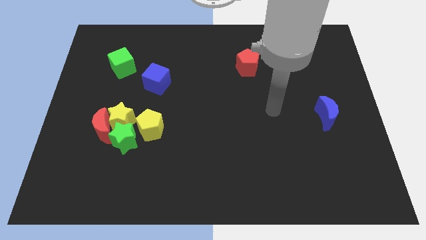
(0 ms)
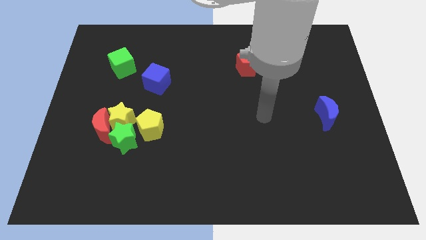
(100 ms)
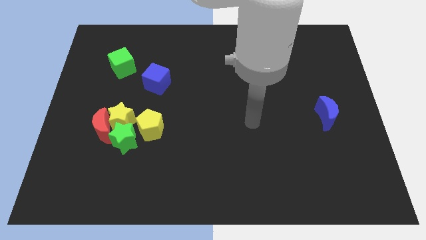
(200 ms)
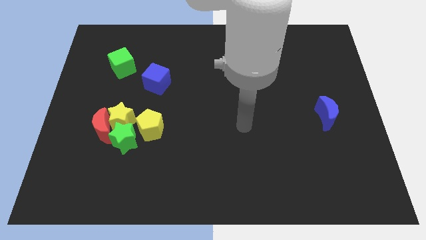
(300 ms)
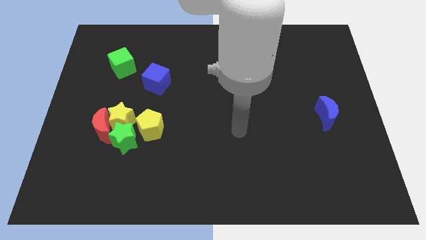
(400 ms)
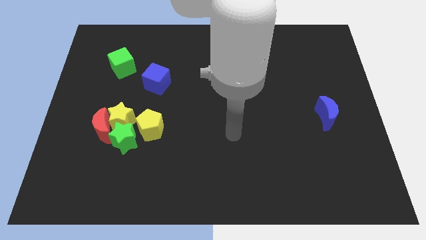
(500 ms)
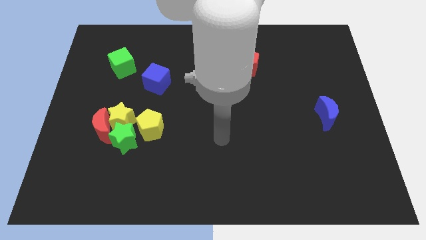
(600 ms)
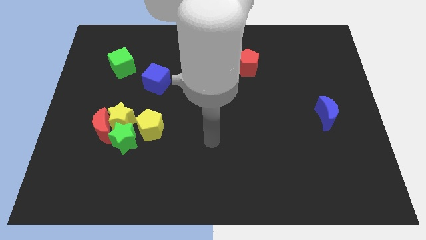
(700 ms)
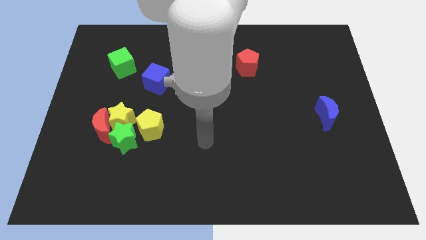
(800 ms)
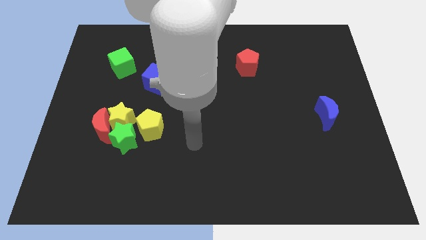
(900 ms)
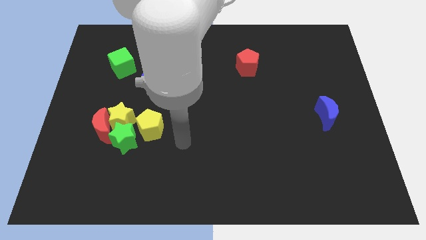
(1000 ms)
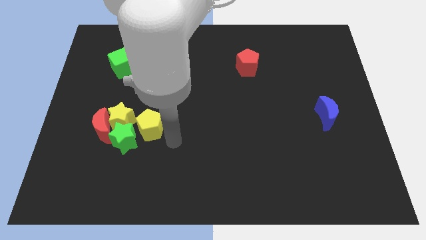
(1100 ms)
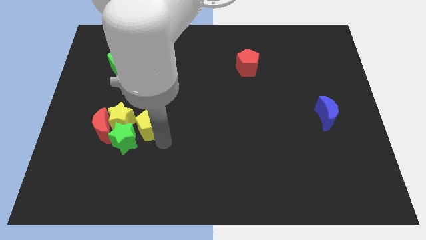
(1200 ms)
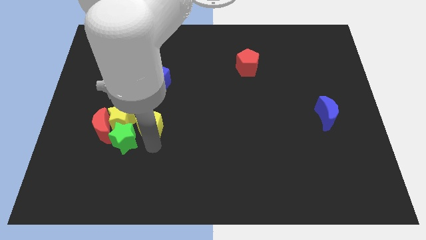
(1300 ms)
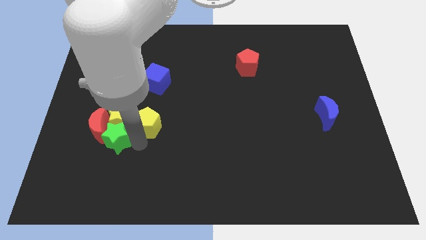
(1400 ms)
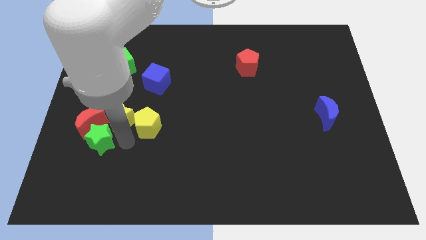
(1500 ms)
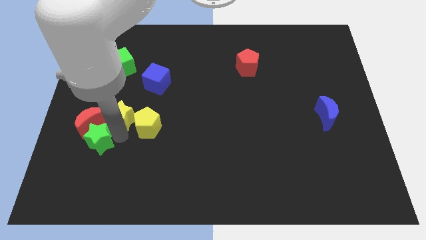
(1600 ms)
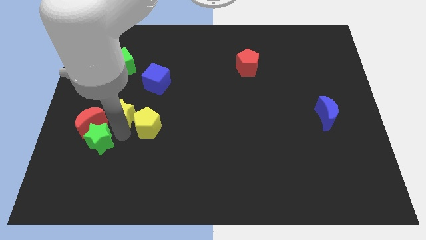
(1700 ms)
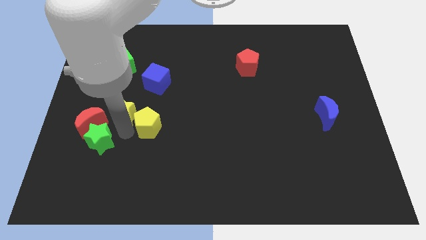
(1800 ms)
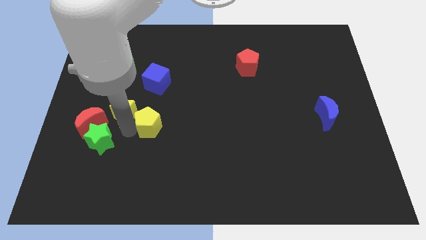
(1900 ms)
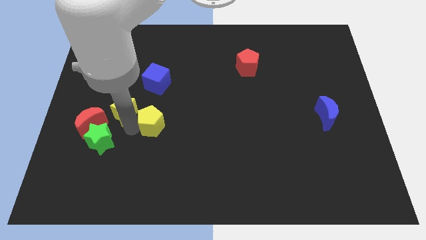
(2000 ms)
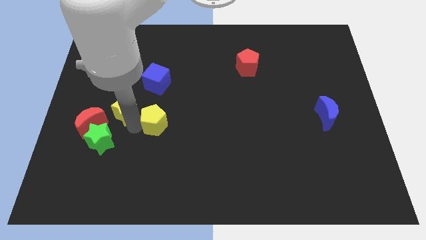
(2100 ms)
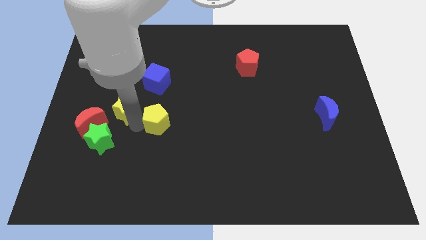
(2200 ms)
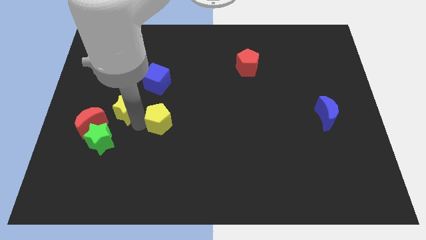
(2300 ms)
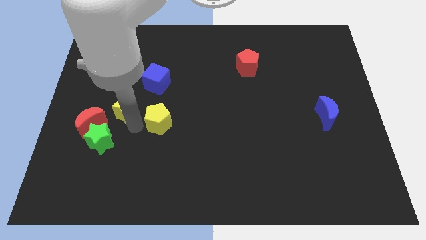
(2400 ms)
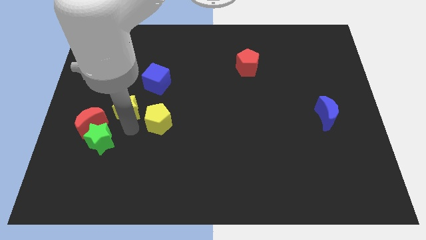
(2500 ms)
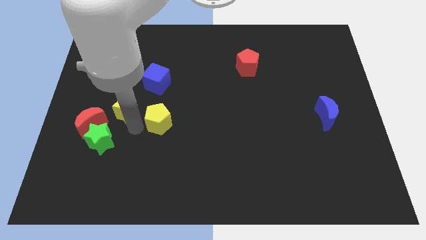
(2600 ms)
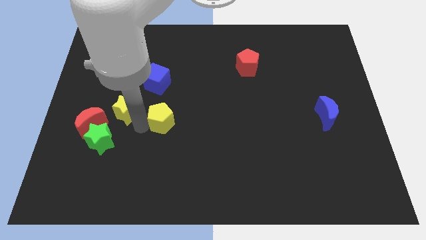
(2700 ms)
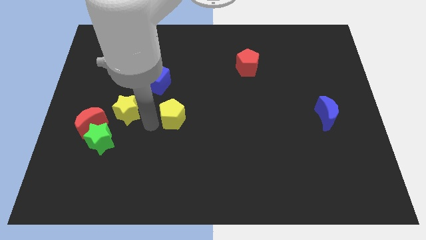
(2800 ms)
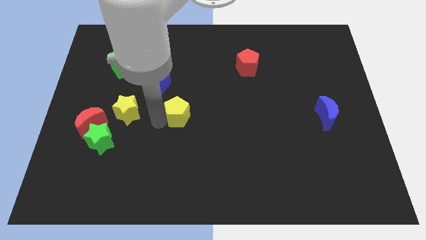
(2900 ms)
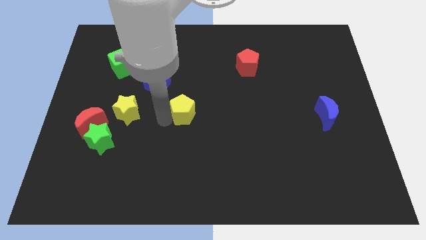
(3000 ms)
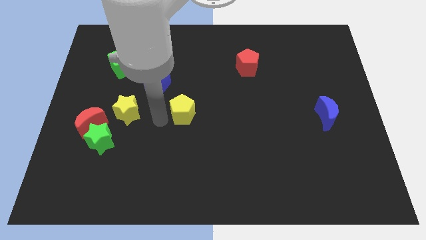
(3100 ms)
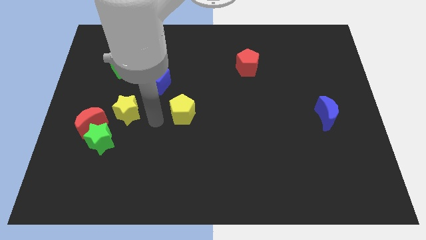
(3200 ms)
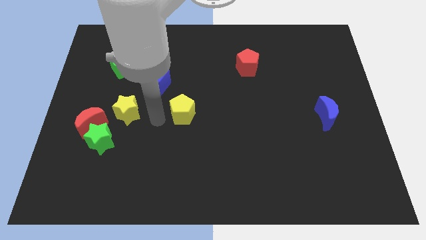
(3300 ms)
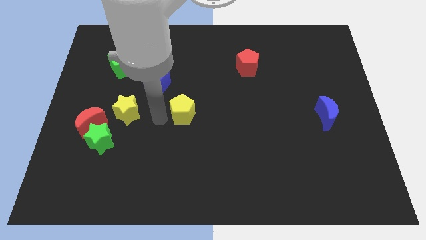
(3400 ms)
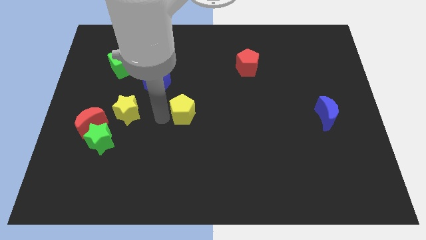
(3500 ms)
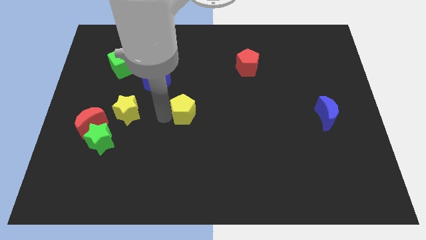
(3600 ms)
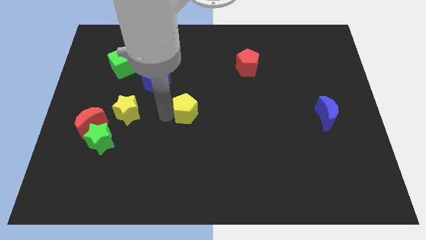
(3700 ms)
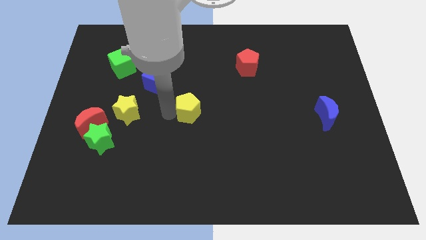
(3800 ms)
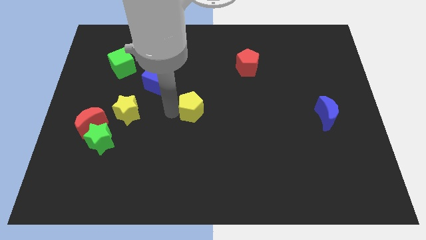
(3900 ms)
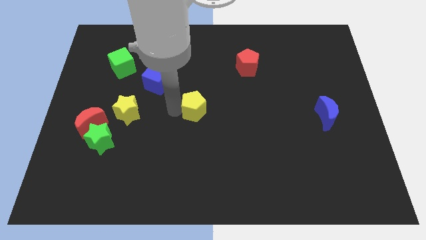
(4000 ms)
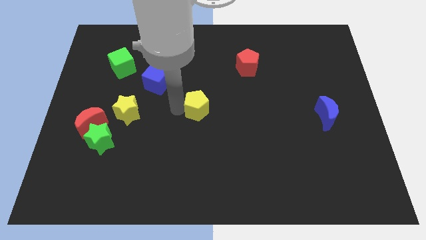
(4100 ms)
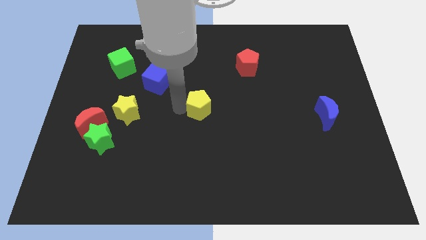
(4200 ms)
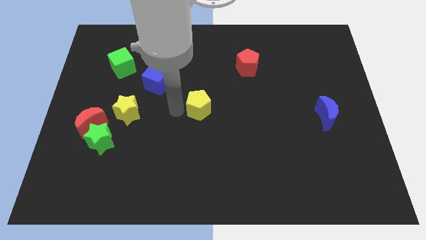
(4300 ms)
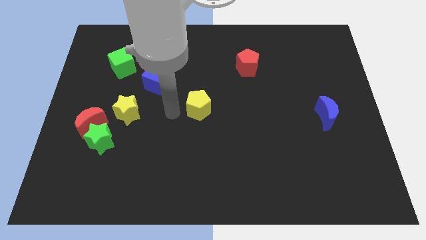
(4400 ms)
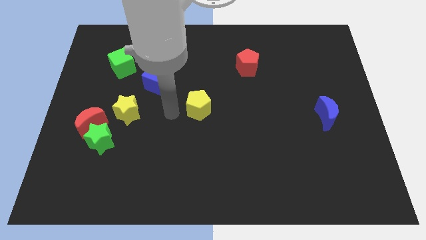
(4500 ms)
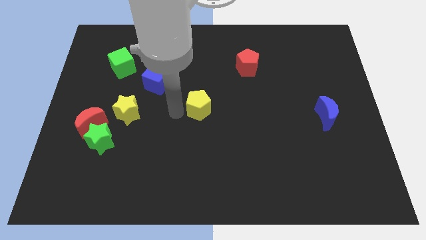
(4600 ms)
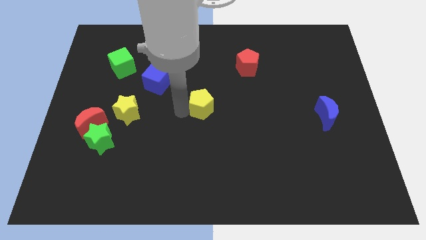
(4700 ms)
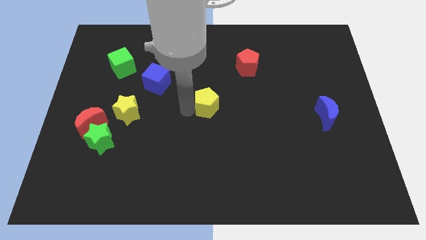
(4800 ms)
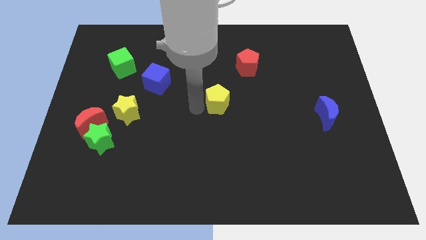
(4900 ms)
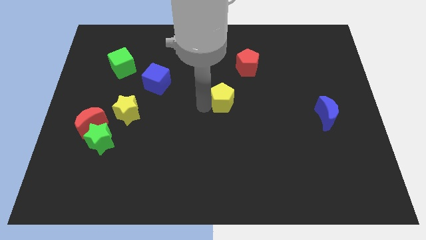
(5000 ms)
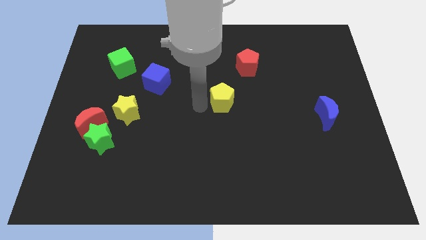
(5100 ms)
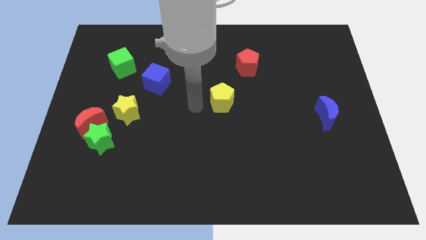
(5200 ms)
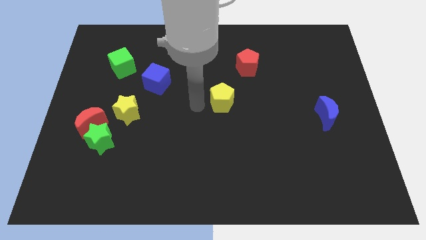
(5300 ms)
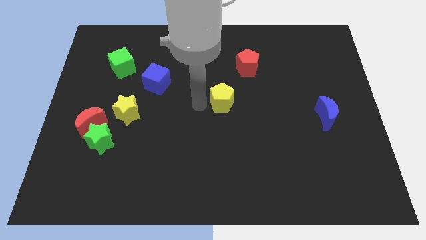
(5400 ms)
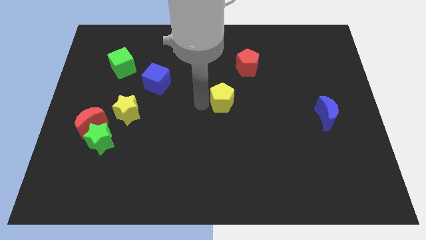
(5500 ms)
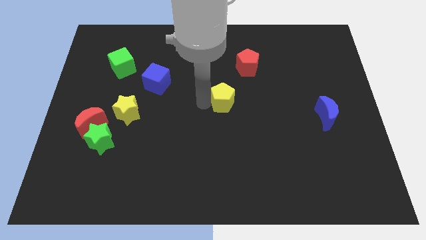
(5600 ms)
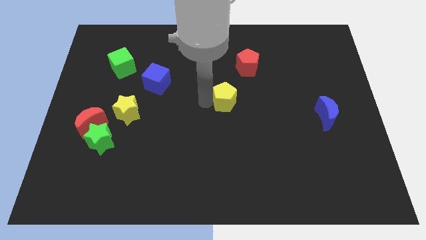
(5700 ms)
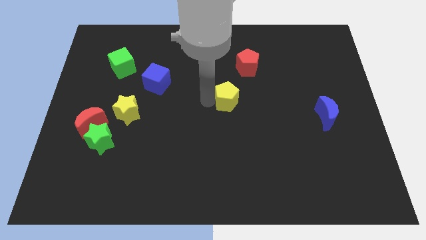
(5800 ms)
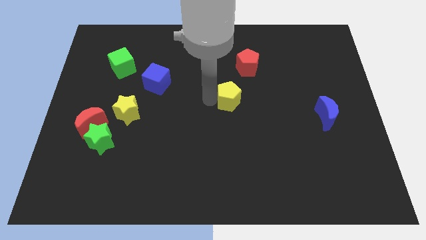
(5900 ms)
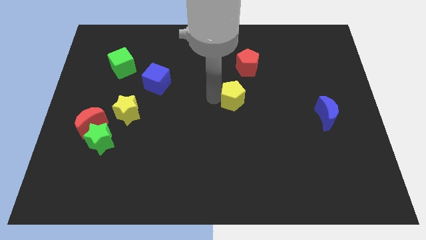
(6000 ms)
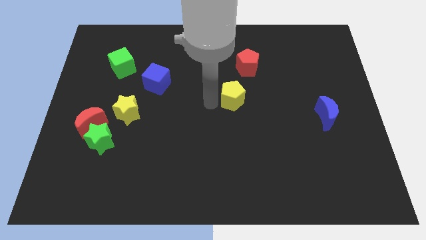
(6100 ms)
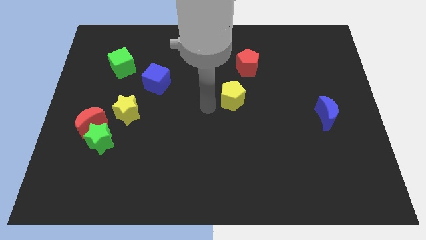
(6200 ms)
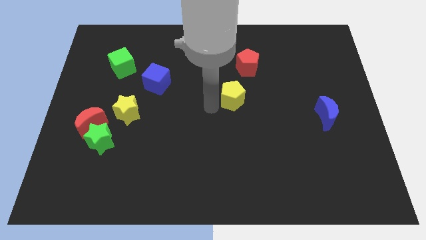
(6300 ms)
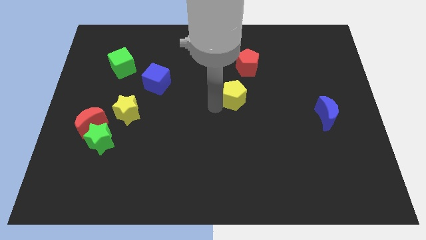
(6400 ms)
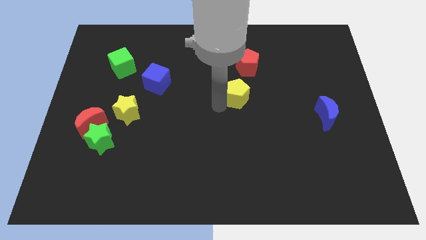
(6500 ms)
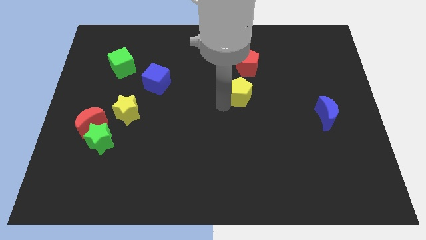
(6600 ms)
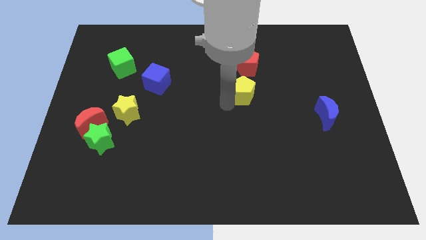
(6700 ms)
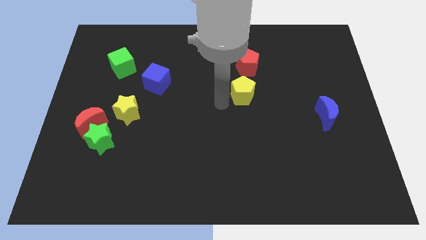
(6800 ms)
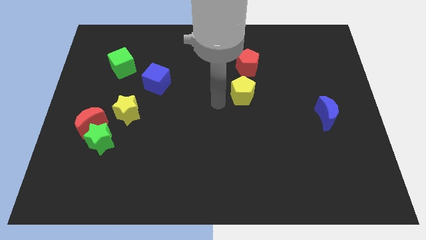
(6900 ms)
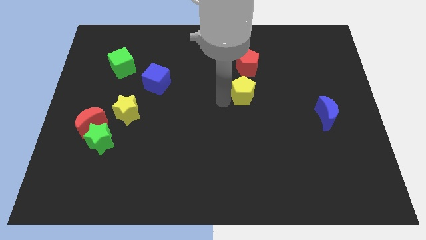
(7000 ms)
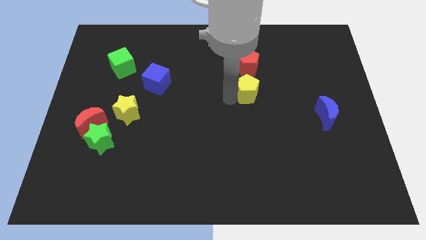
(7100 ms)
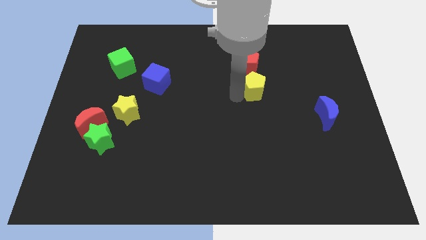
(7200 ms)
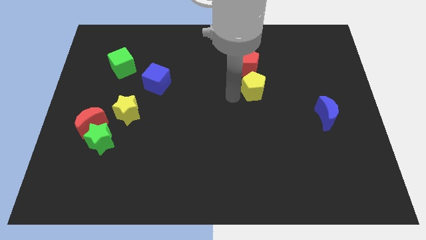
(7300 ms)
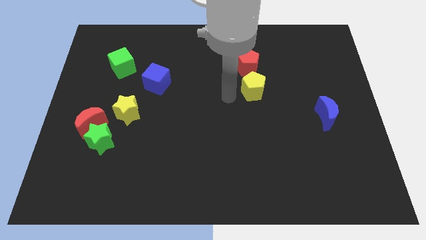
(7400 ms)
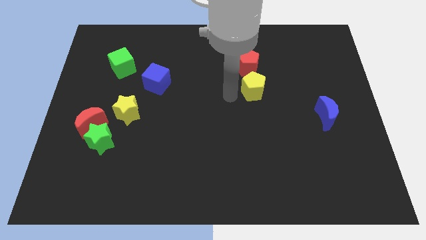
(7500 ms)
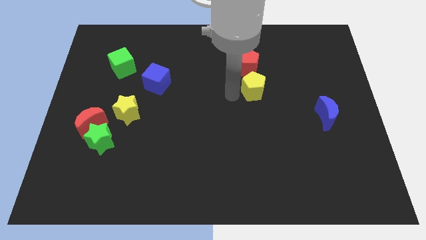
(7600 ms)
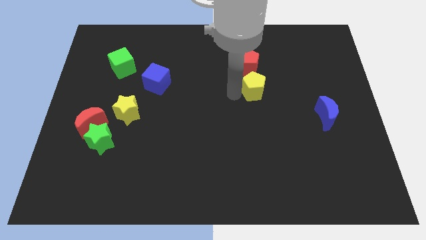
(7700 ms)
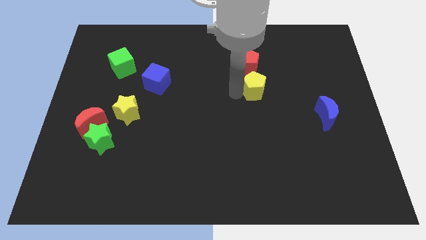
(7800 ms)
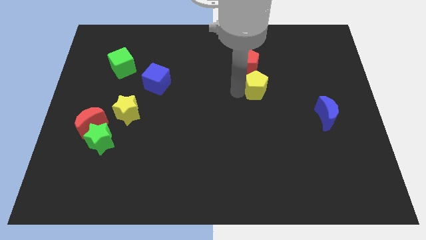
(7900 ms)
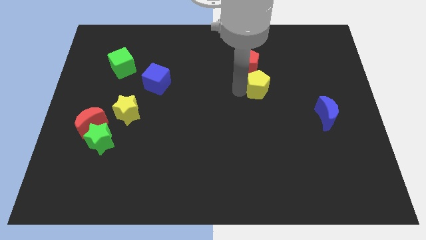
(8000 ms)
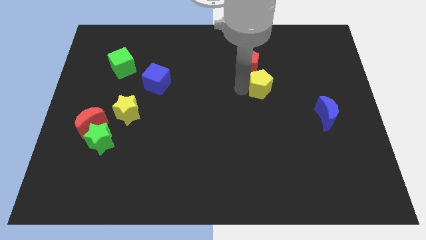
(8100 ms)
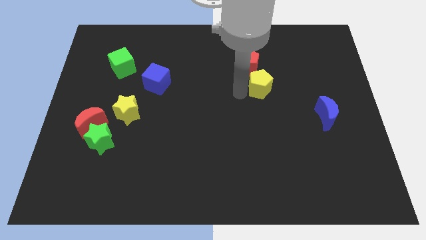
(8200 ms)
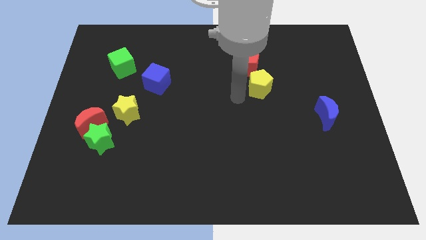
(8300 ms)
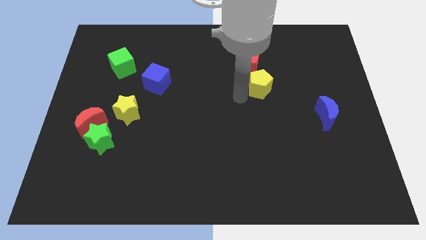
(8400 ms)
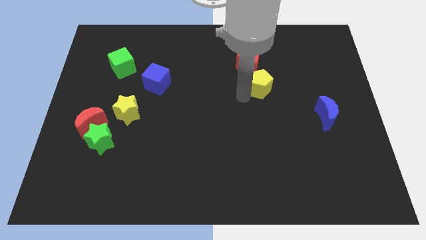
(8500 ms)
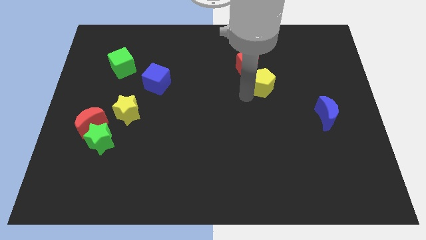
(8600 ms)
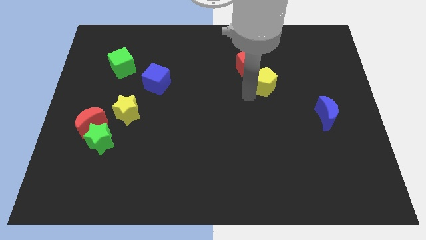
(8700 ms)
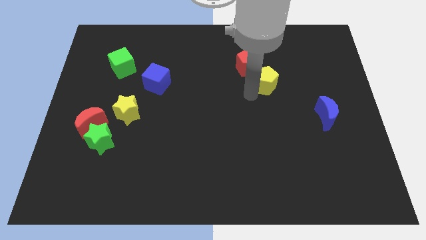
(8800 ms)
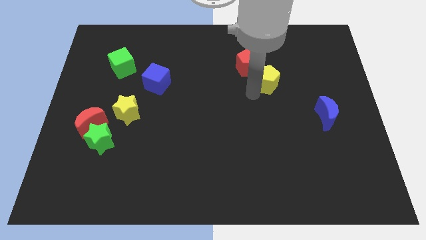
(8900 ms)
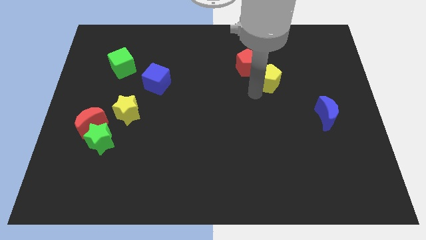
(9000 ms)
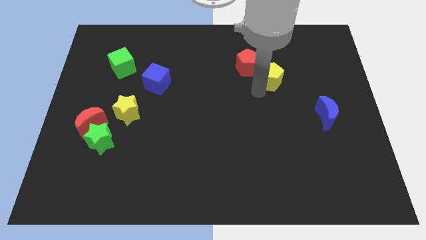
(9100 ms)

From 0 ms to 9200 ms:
push the yellow pentagon to the right of the red pentagon
